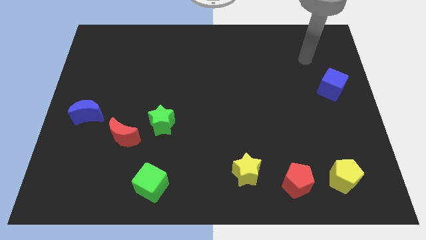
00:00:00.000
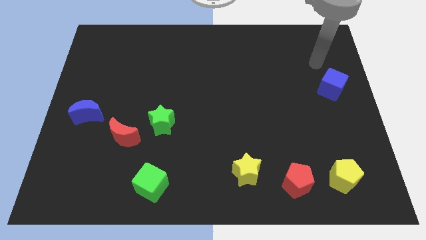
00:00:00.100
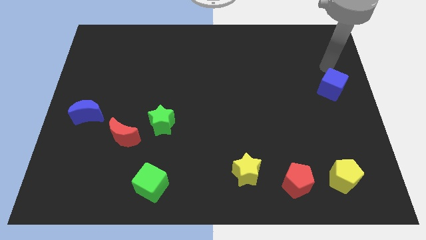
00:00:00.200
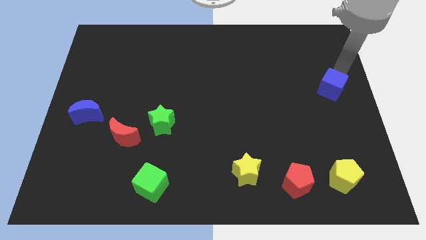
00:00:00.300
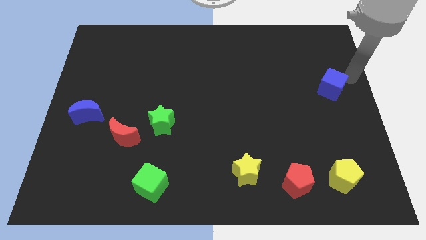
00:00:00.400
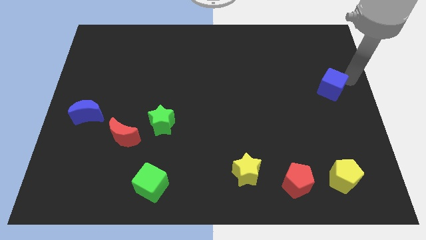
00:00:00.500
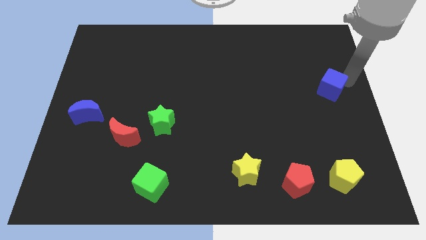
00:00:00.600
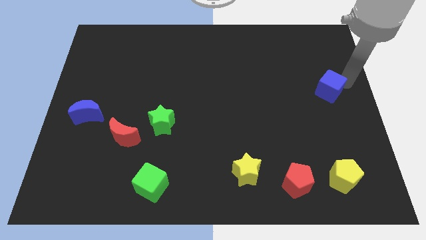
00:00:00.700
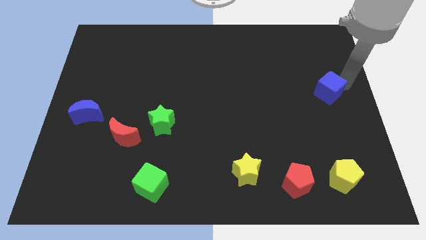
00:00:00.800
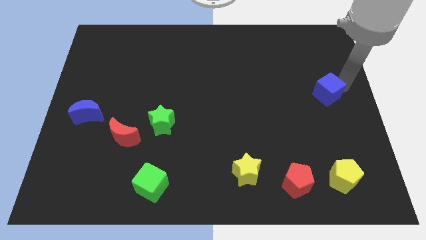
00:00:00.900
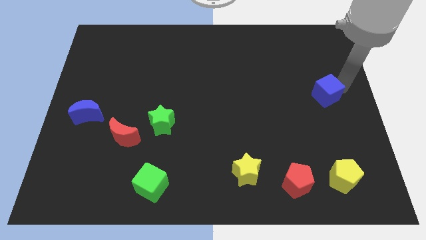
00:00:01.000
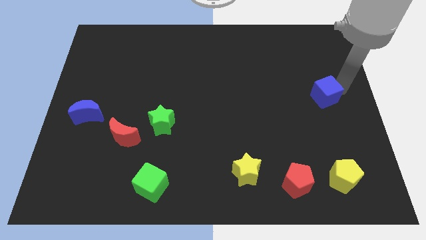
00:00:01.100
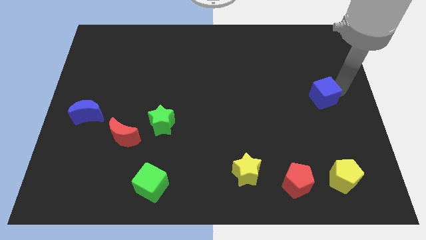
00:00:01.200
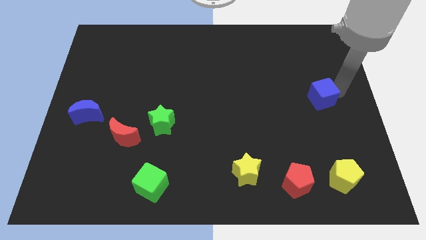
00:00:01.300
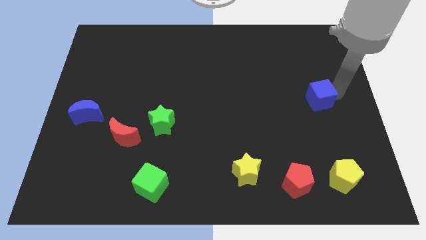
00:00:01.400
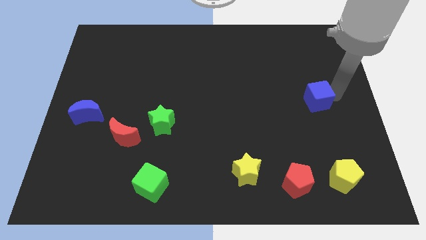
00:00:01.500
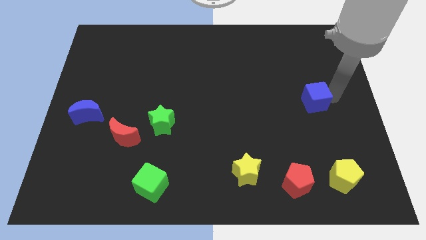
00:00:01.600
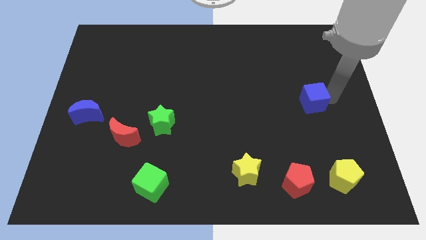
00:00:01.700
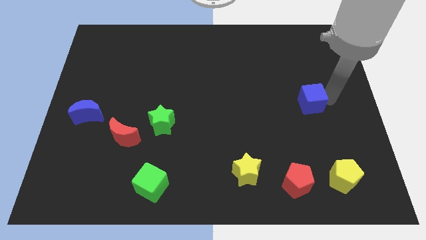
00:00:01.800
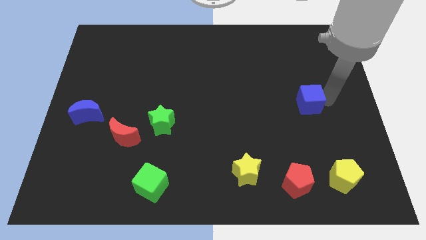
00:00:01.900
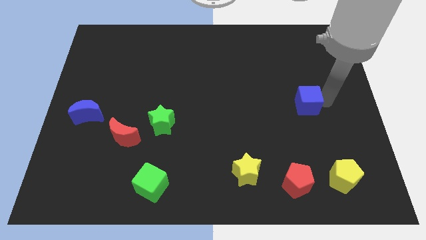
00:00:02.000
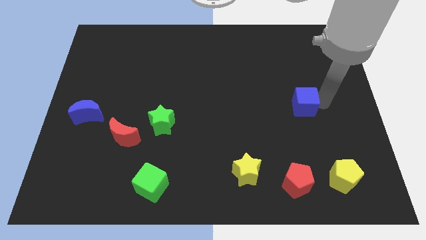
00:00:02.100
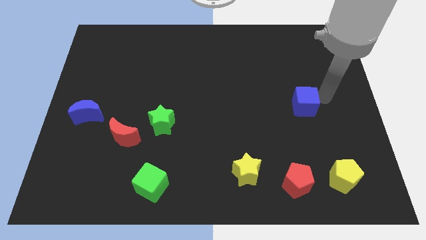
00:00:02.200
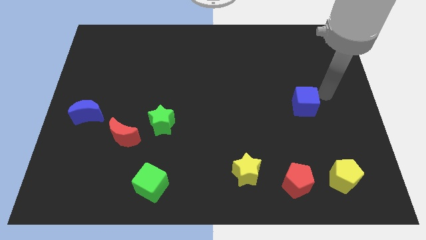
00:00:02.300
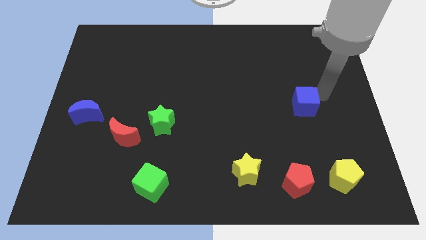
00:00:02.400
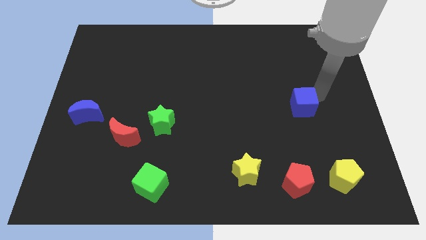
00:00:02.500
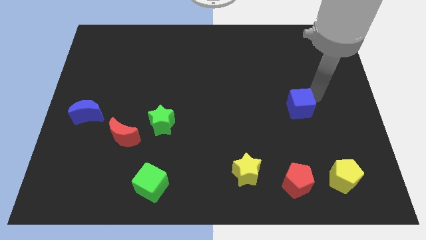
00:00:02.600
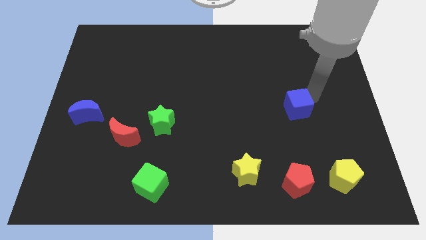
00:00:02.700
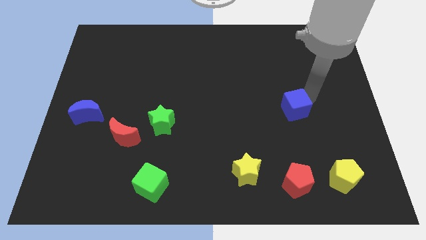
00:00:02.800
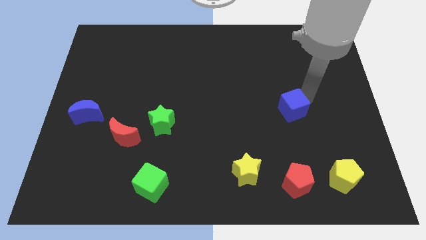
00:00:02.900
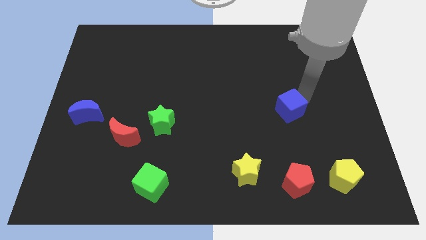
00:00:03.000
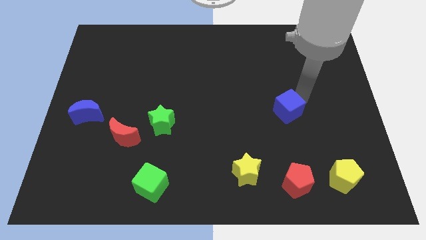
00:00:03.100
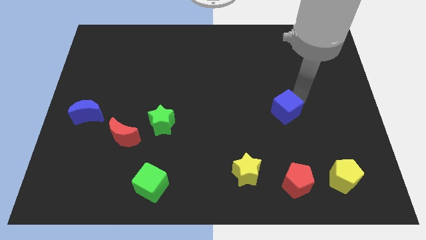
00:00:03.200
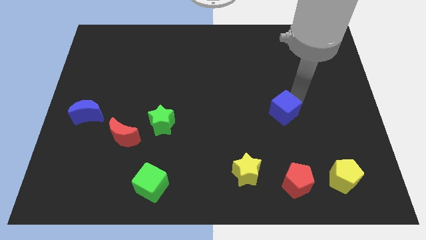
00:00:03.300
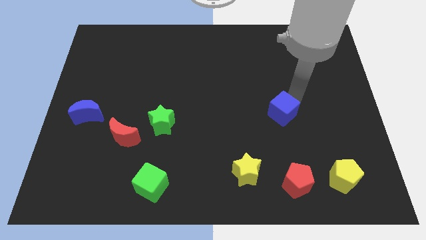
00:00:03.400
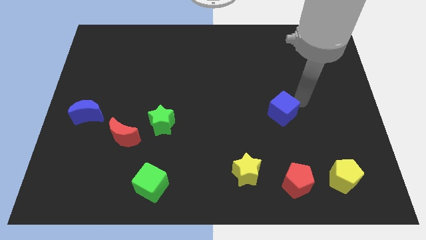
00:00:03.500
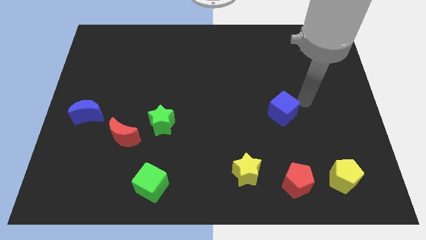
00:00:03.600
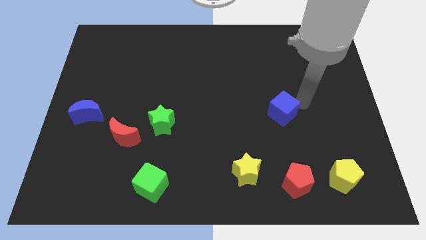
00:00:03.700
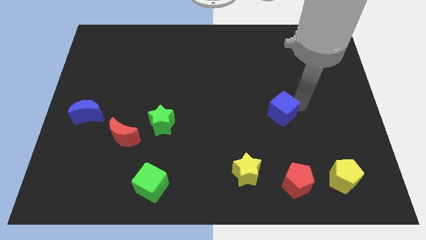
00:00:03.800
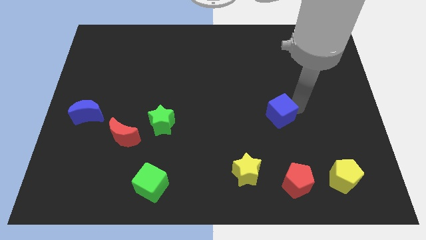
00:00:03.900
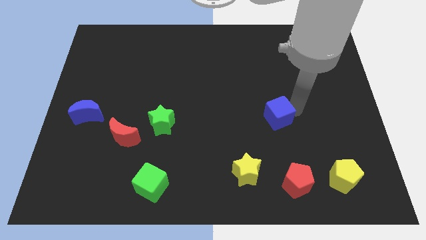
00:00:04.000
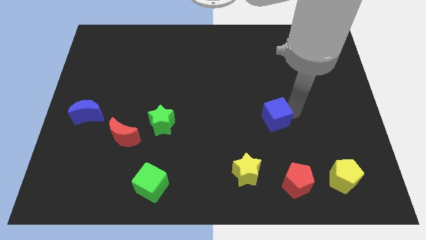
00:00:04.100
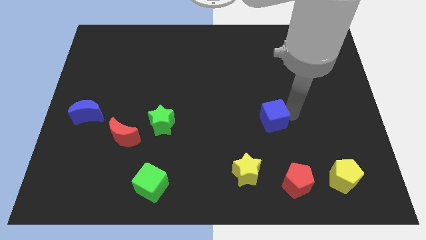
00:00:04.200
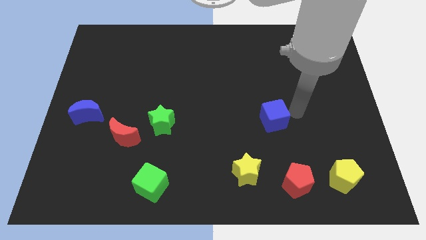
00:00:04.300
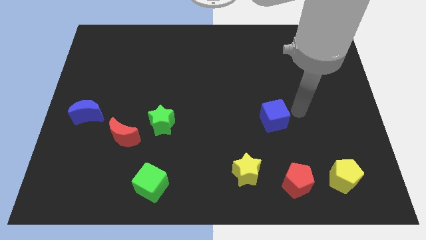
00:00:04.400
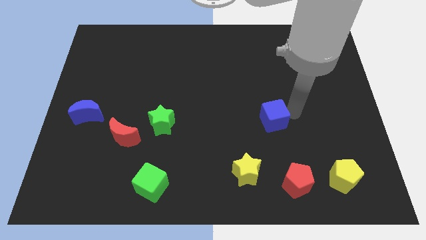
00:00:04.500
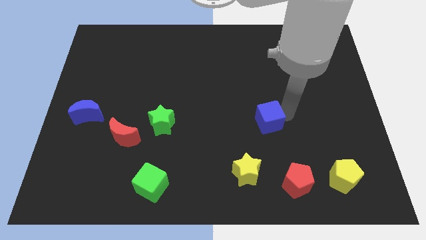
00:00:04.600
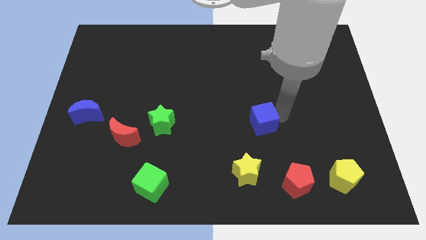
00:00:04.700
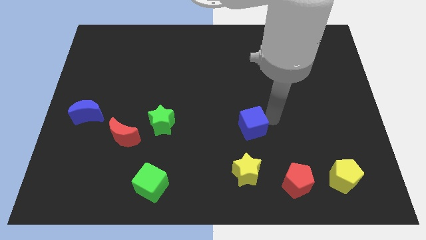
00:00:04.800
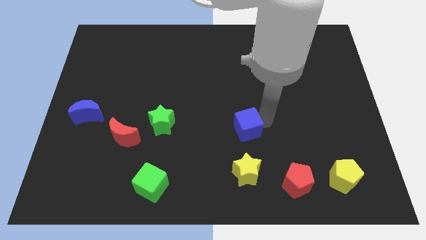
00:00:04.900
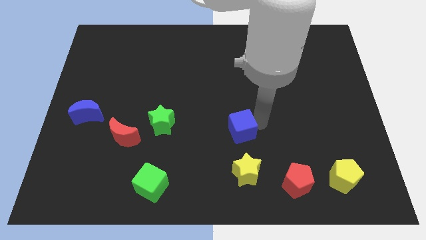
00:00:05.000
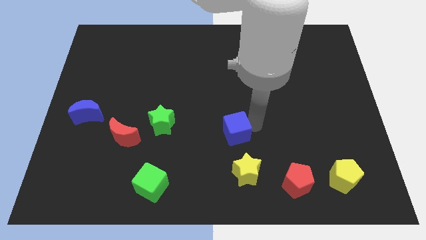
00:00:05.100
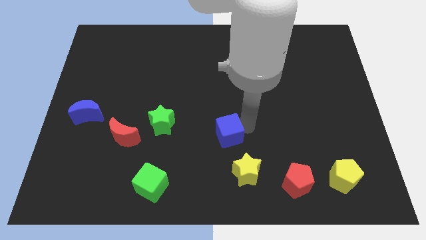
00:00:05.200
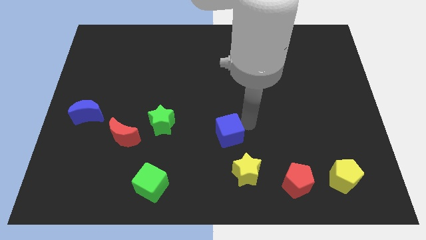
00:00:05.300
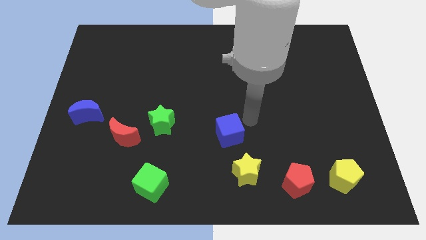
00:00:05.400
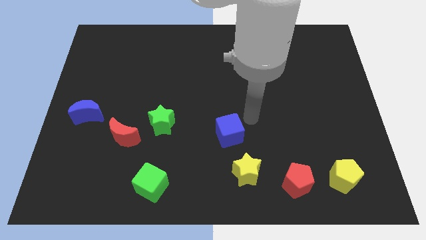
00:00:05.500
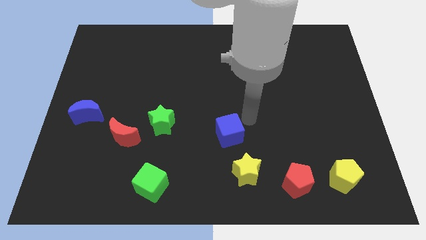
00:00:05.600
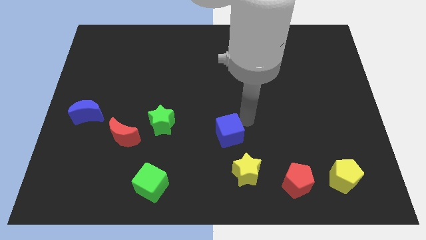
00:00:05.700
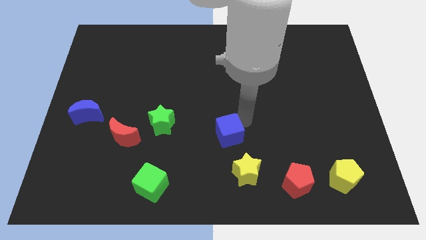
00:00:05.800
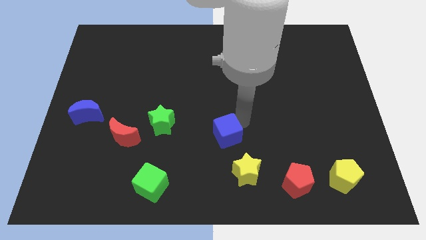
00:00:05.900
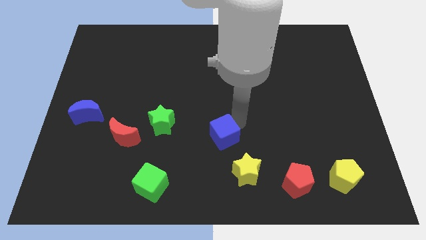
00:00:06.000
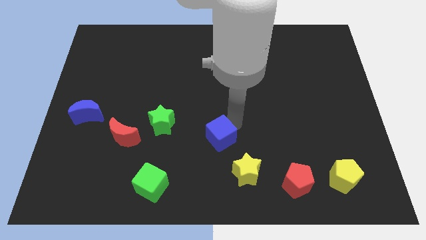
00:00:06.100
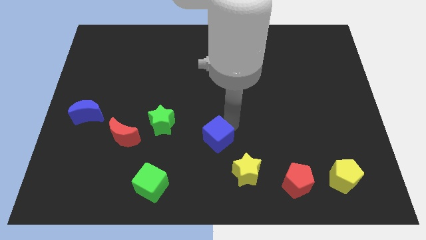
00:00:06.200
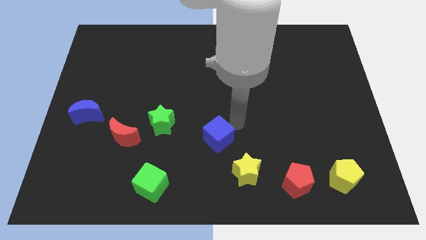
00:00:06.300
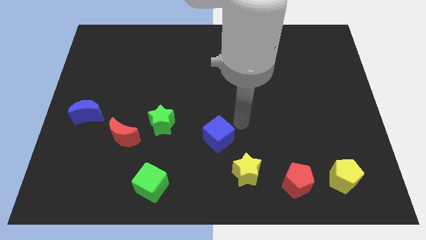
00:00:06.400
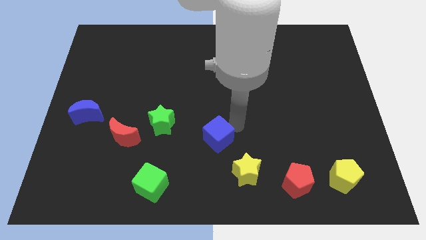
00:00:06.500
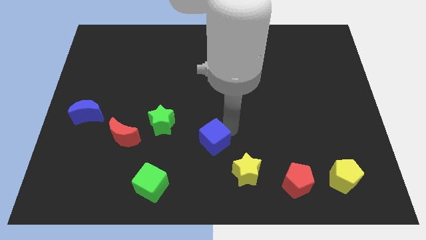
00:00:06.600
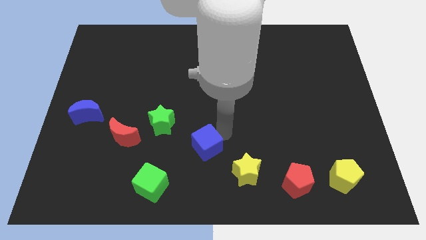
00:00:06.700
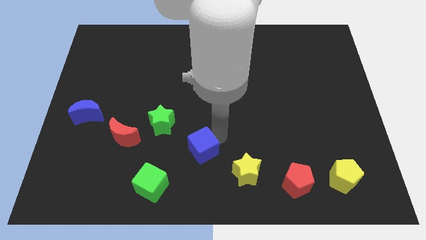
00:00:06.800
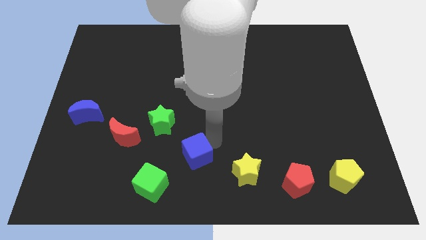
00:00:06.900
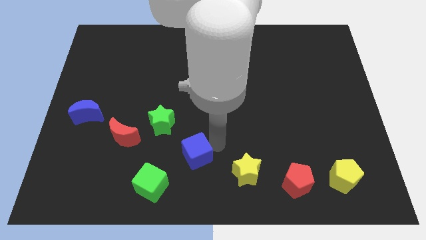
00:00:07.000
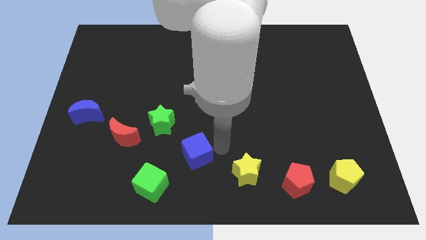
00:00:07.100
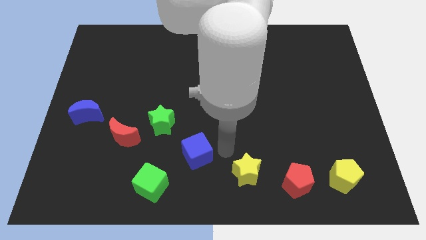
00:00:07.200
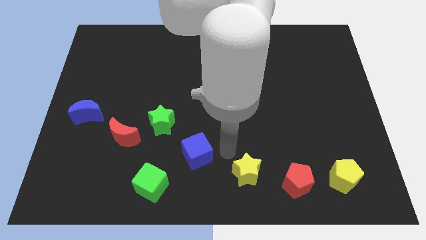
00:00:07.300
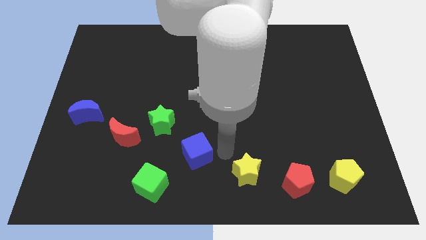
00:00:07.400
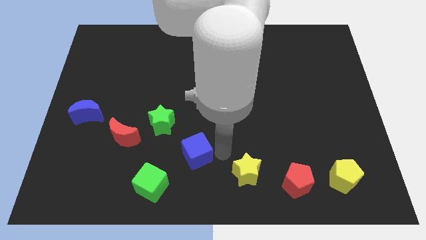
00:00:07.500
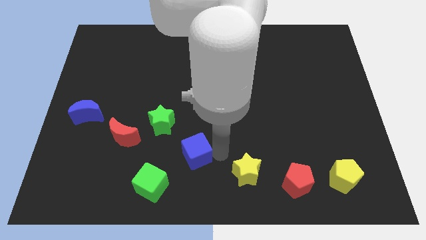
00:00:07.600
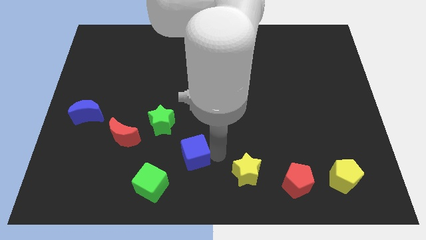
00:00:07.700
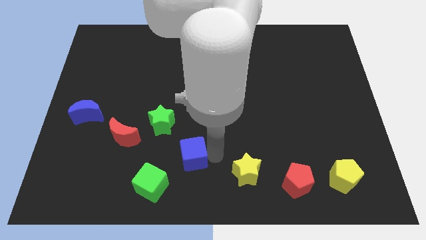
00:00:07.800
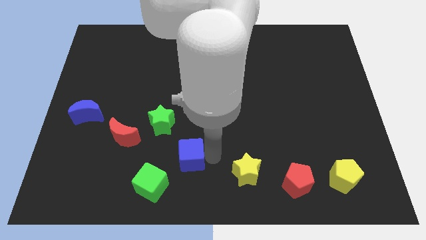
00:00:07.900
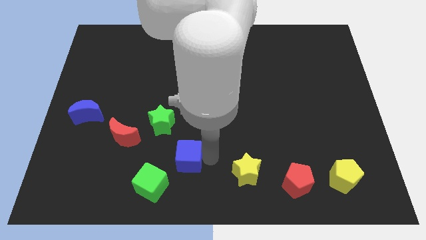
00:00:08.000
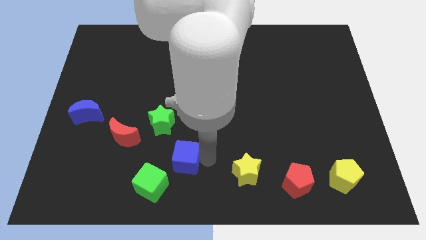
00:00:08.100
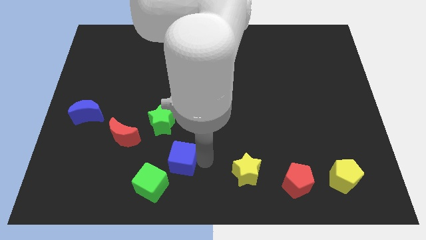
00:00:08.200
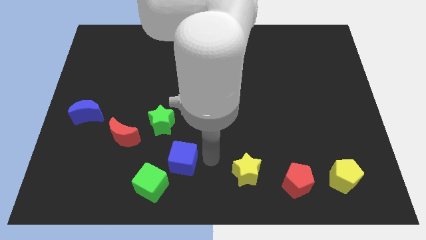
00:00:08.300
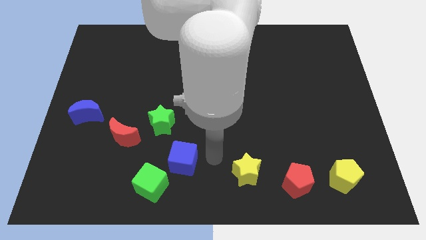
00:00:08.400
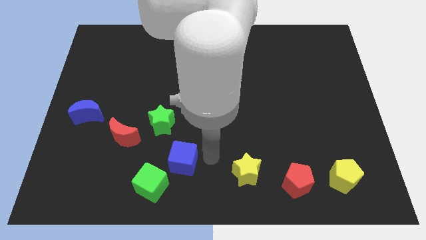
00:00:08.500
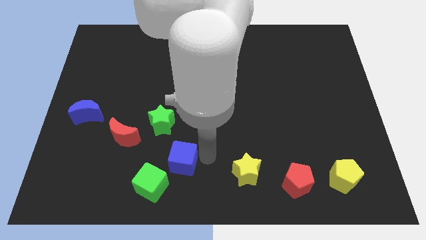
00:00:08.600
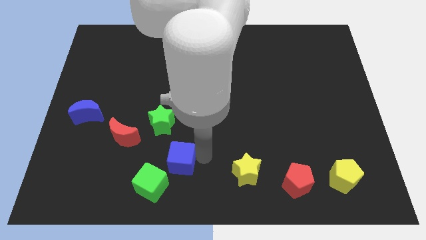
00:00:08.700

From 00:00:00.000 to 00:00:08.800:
slide the blue cube to the bottom of the green star
